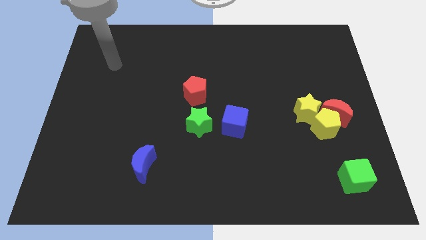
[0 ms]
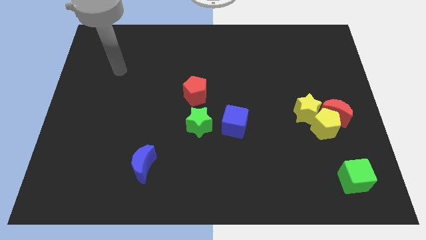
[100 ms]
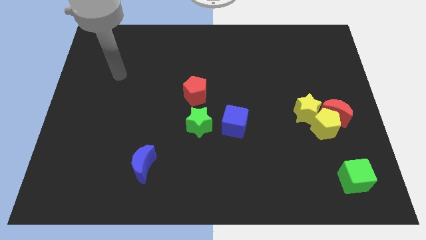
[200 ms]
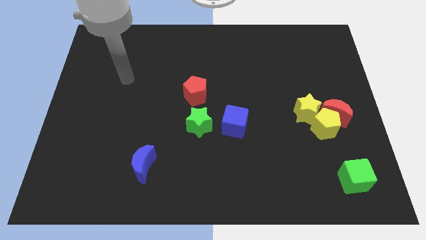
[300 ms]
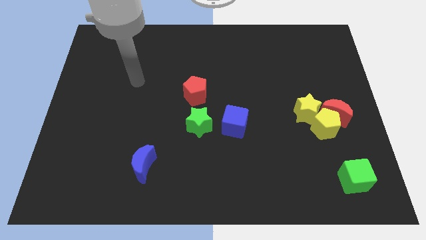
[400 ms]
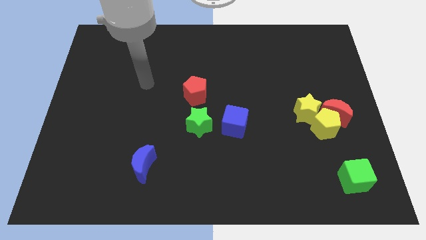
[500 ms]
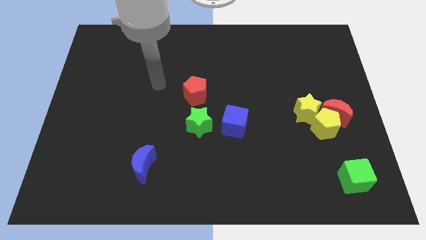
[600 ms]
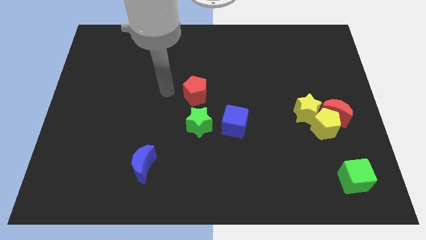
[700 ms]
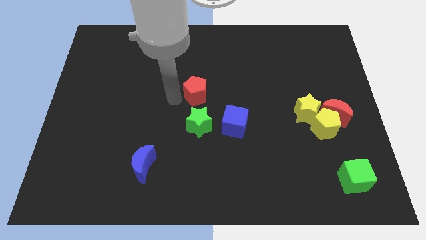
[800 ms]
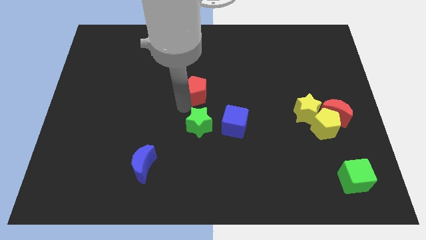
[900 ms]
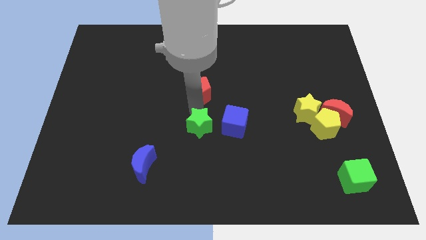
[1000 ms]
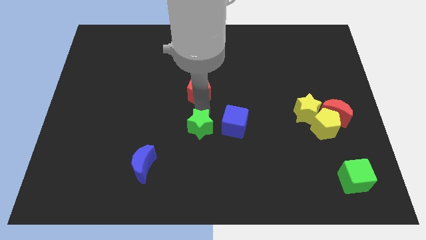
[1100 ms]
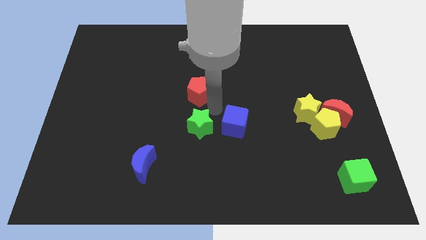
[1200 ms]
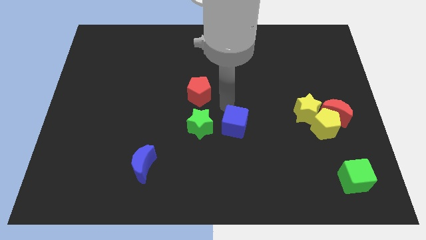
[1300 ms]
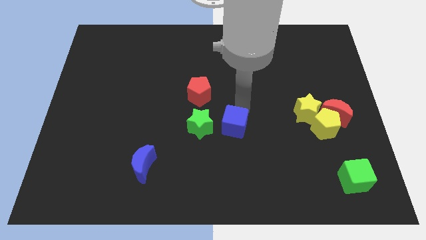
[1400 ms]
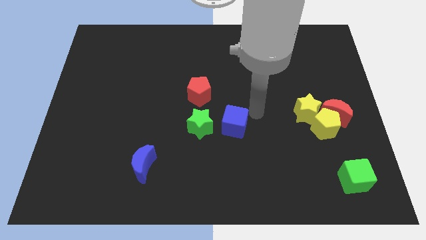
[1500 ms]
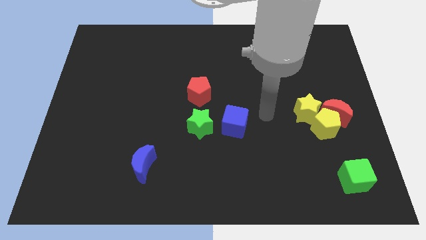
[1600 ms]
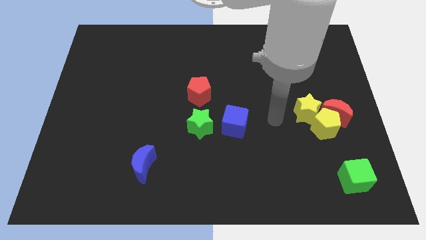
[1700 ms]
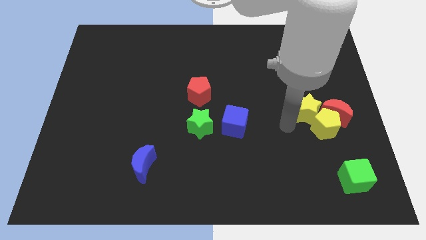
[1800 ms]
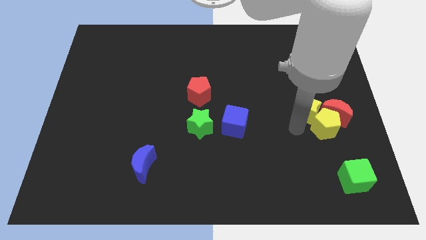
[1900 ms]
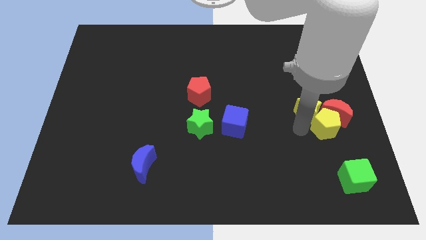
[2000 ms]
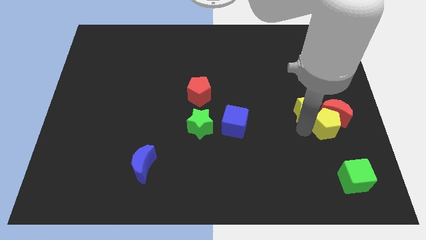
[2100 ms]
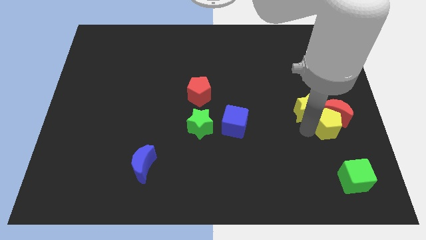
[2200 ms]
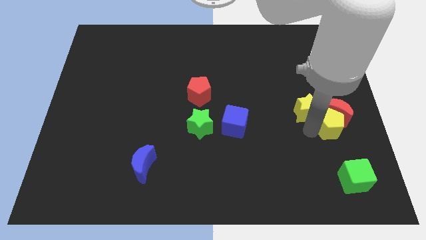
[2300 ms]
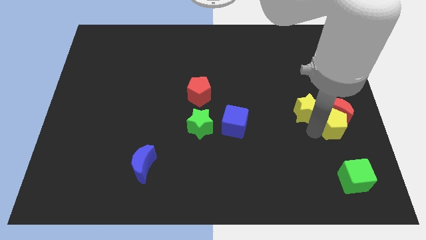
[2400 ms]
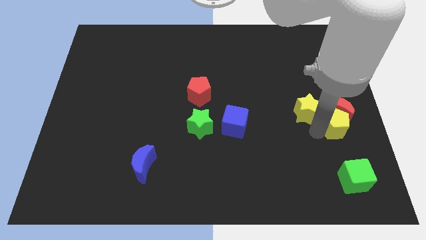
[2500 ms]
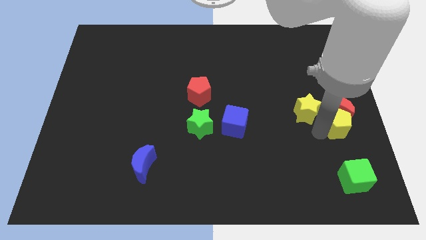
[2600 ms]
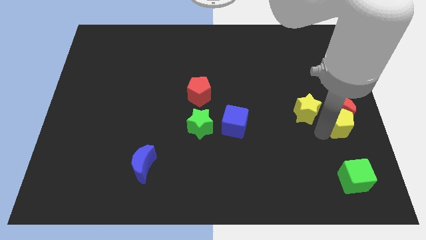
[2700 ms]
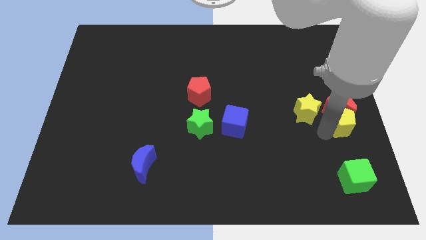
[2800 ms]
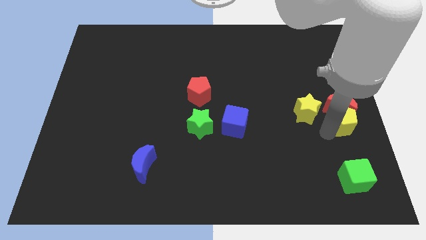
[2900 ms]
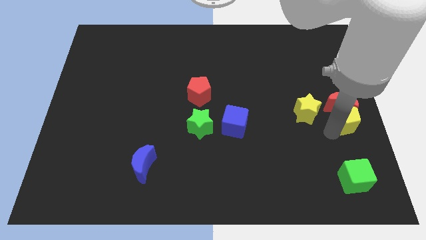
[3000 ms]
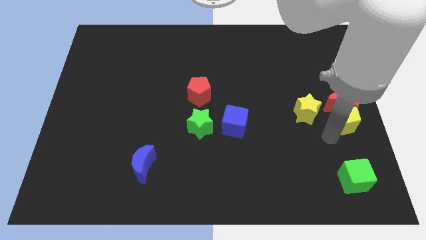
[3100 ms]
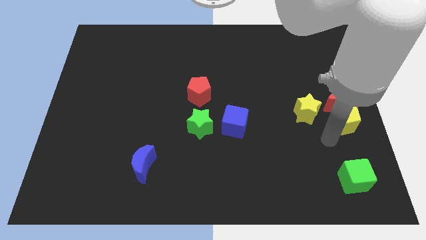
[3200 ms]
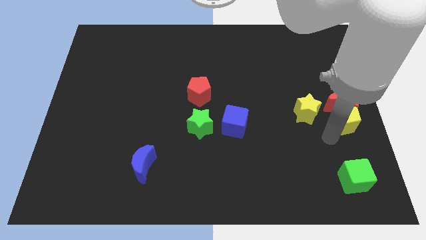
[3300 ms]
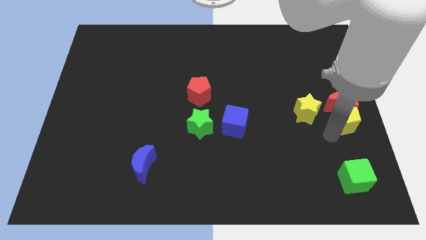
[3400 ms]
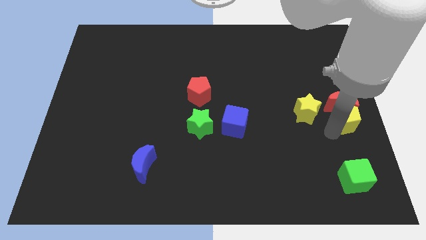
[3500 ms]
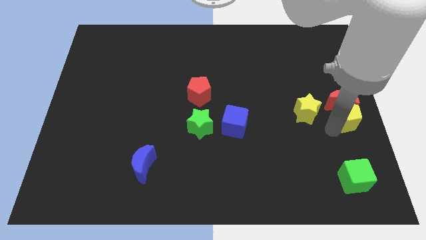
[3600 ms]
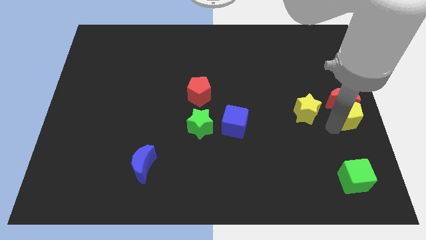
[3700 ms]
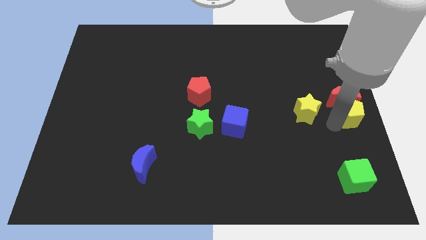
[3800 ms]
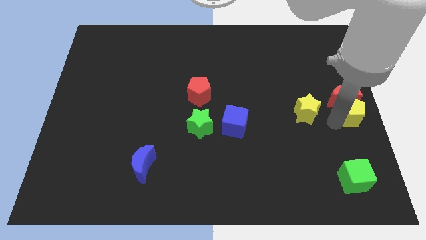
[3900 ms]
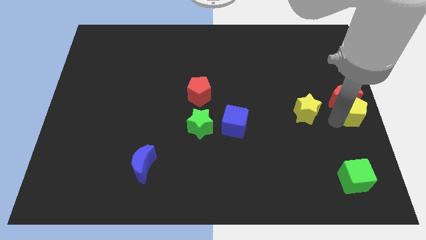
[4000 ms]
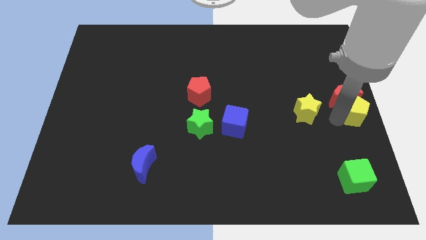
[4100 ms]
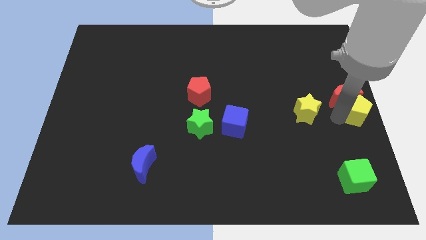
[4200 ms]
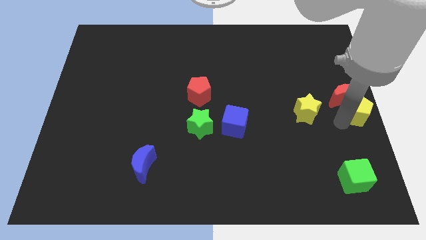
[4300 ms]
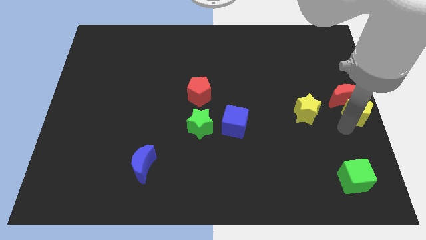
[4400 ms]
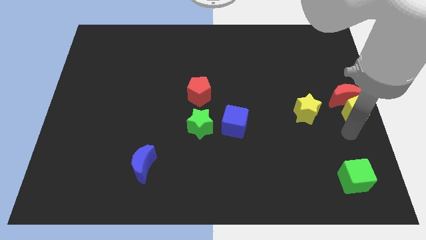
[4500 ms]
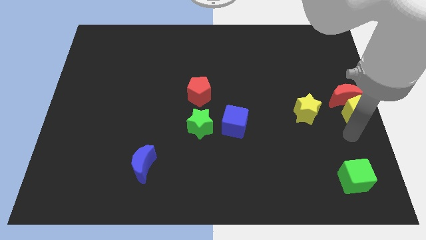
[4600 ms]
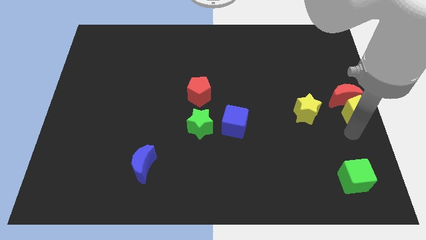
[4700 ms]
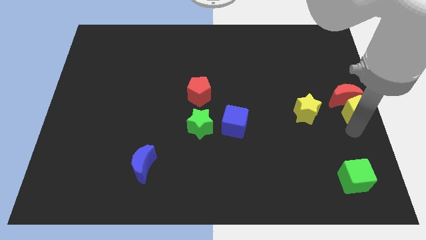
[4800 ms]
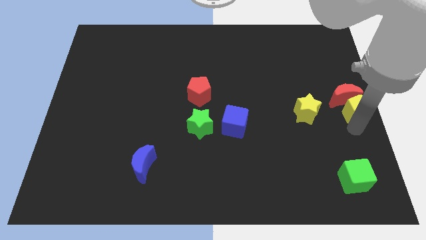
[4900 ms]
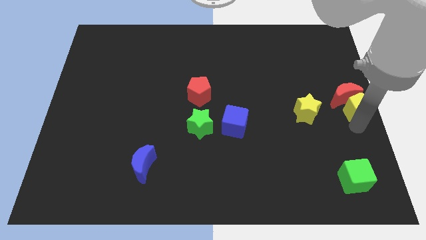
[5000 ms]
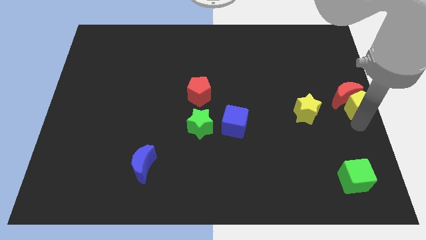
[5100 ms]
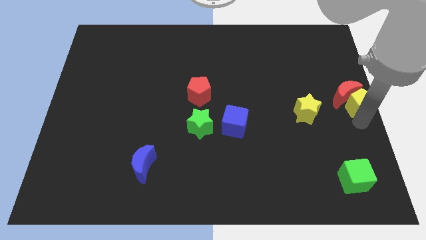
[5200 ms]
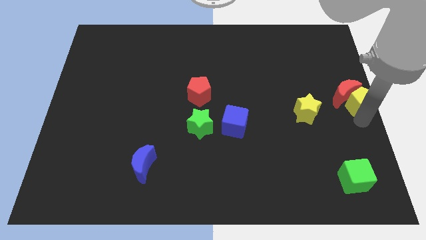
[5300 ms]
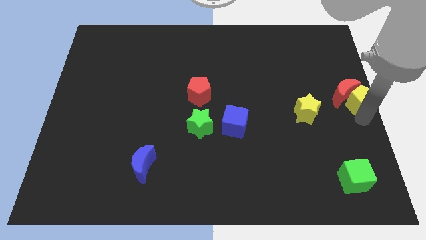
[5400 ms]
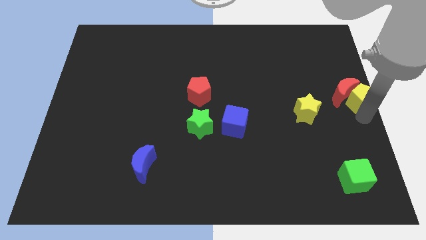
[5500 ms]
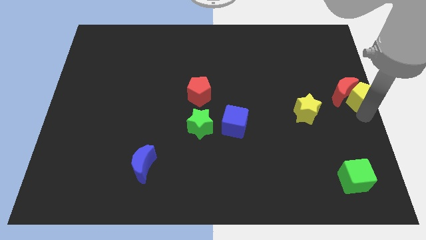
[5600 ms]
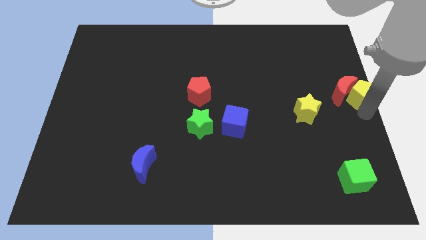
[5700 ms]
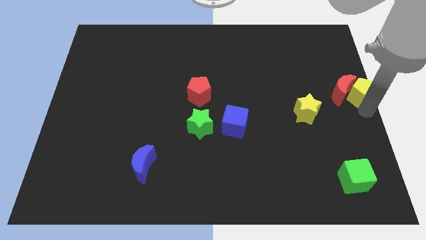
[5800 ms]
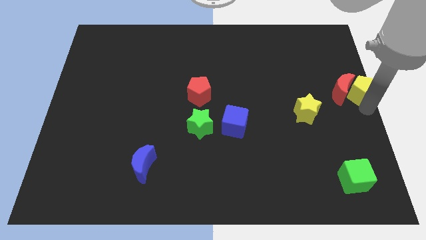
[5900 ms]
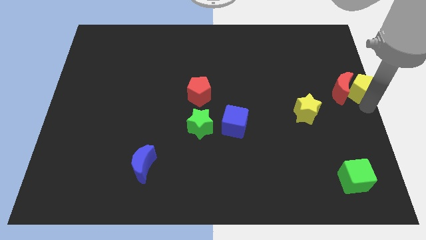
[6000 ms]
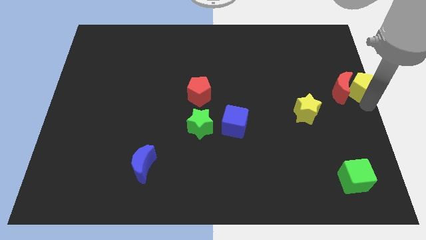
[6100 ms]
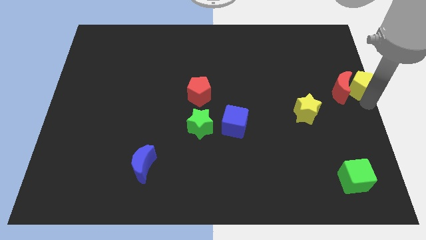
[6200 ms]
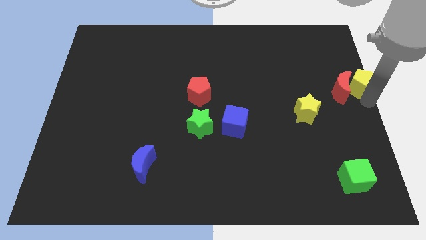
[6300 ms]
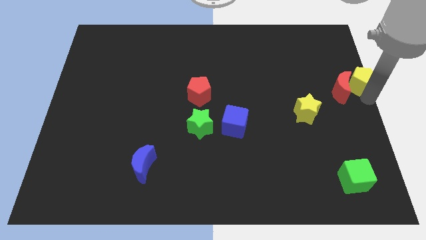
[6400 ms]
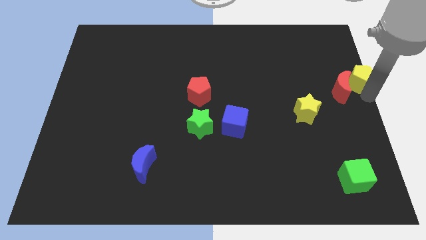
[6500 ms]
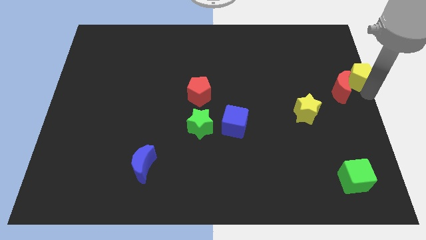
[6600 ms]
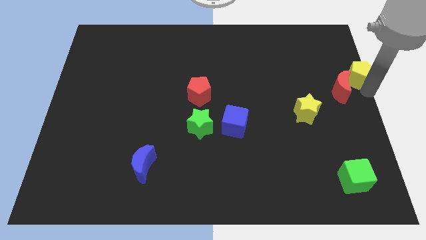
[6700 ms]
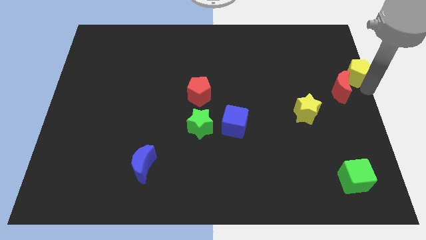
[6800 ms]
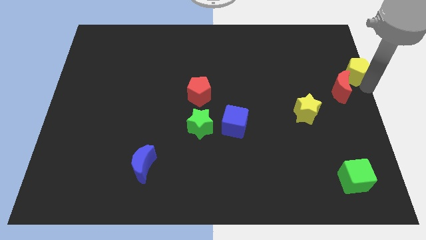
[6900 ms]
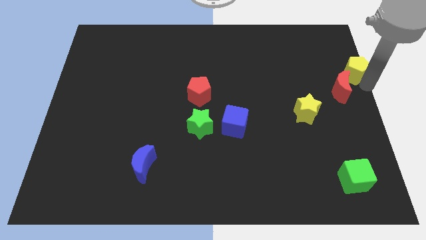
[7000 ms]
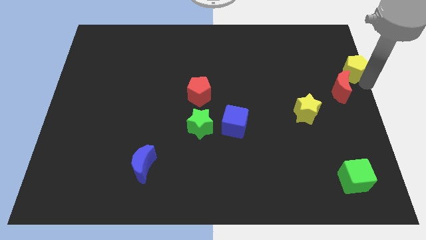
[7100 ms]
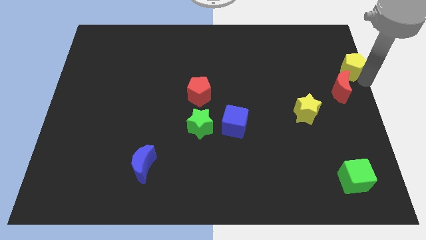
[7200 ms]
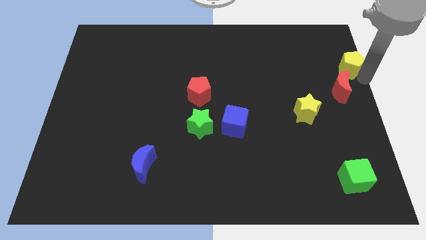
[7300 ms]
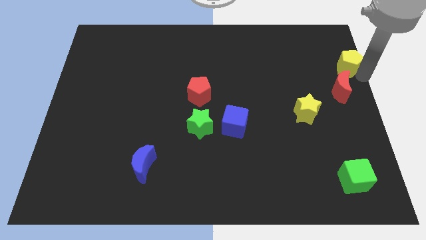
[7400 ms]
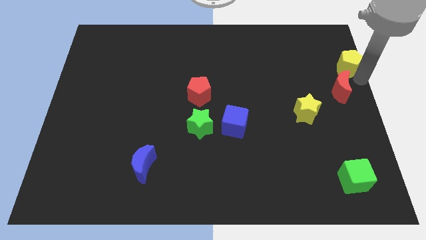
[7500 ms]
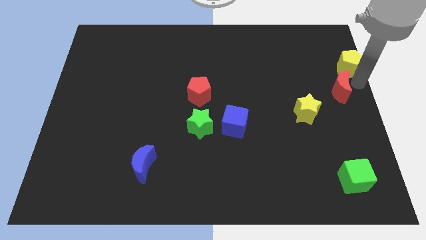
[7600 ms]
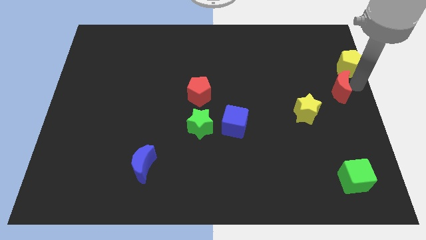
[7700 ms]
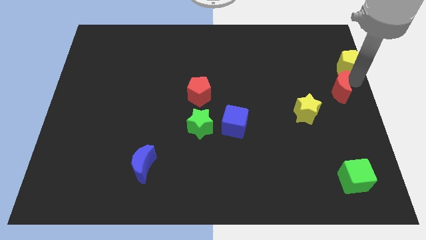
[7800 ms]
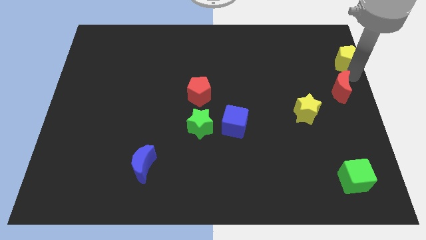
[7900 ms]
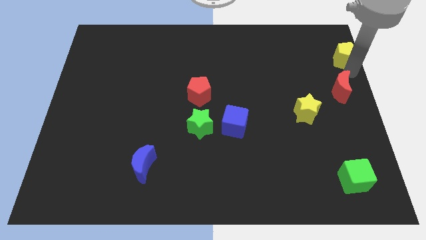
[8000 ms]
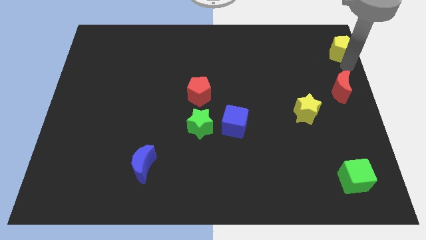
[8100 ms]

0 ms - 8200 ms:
slide the yellow pentagon to the top right of the board
